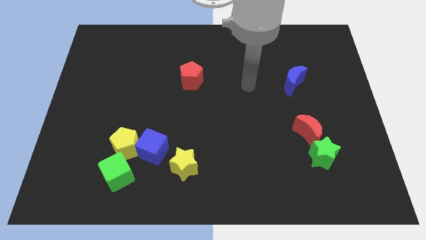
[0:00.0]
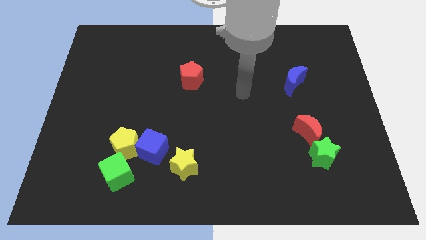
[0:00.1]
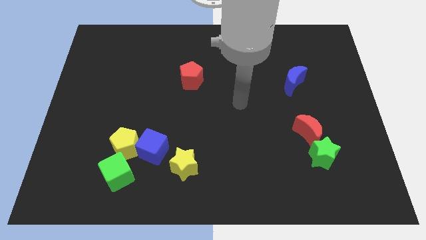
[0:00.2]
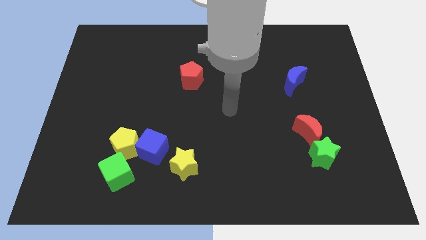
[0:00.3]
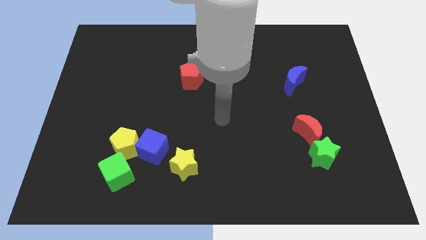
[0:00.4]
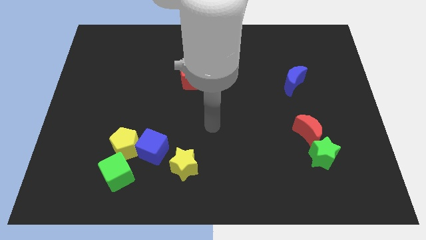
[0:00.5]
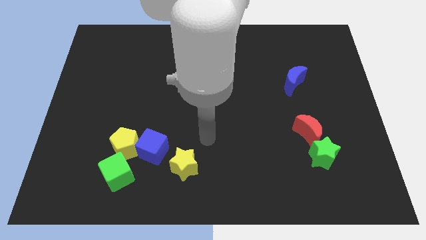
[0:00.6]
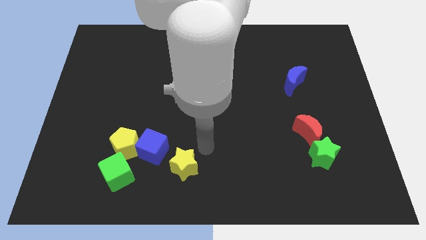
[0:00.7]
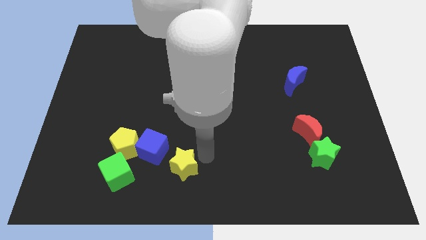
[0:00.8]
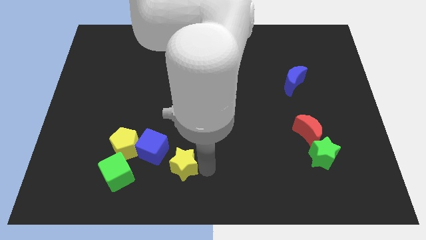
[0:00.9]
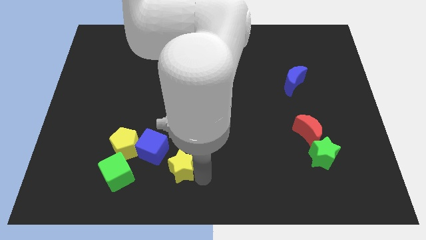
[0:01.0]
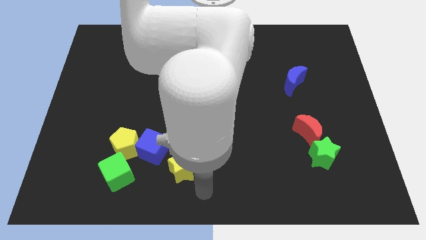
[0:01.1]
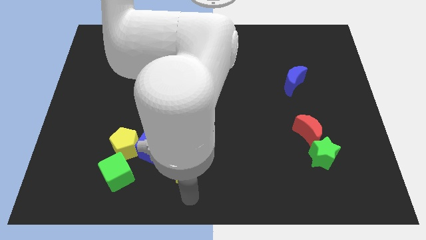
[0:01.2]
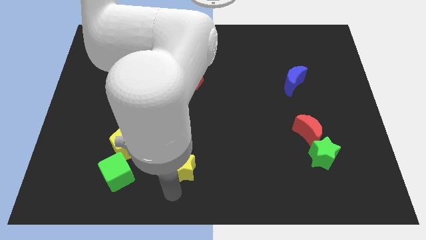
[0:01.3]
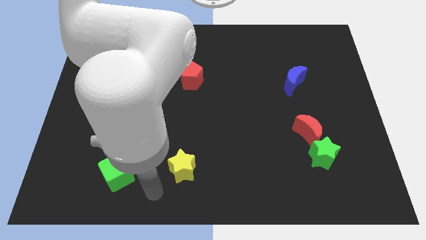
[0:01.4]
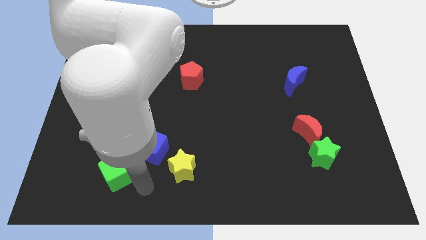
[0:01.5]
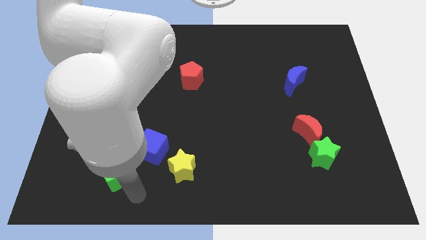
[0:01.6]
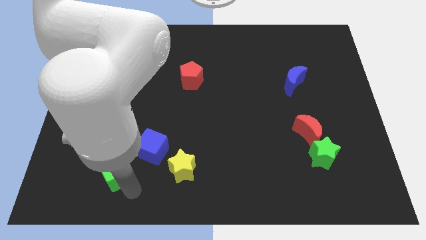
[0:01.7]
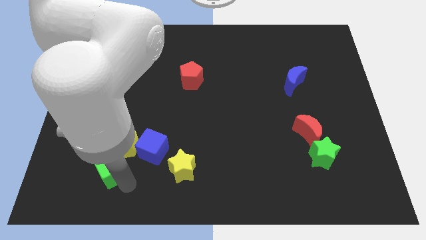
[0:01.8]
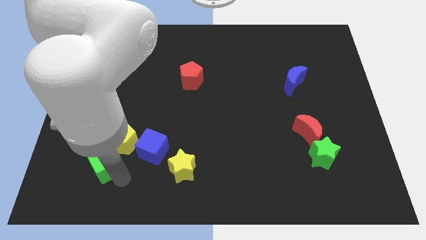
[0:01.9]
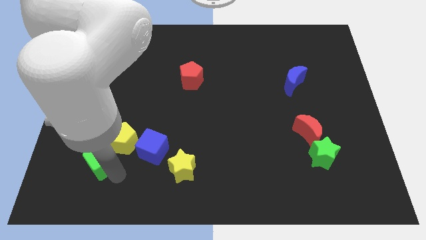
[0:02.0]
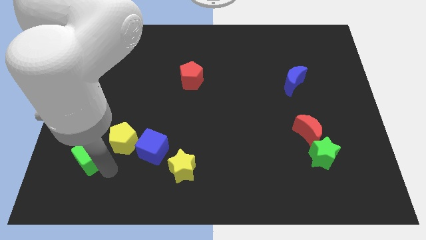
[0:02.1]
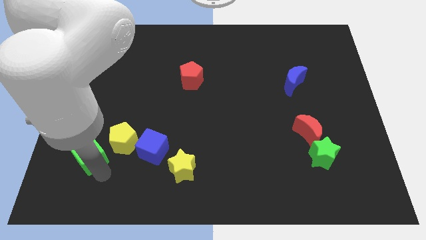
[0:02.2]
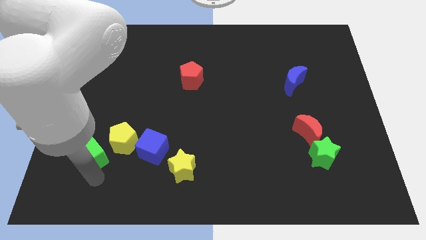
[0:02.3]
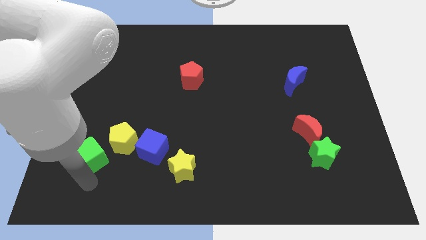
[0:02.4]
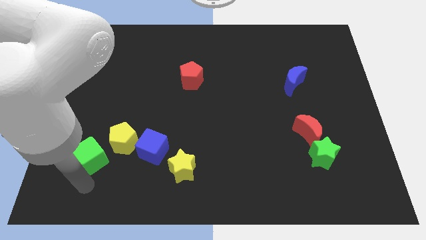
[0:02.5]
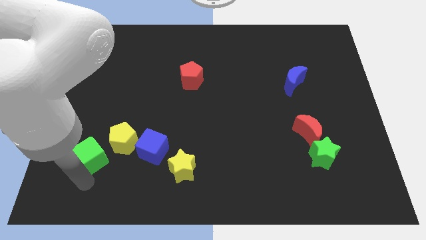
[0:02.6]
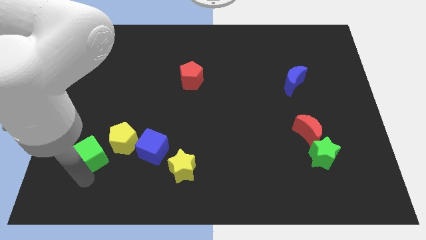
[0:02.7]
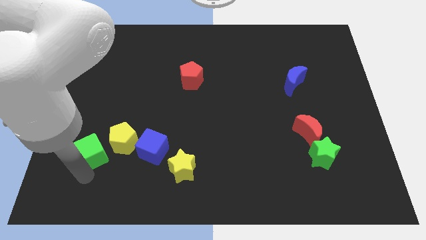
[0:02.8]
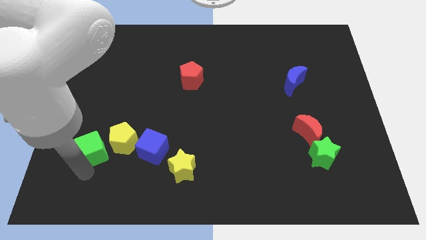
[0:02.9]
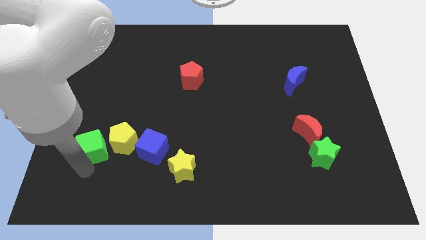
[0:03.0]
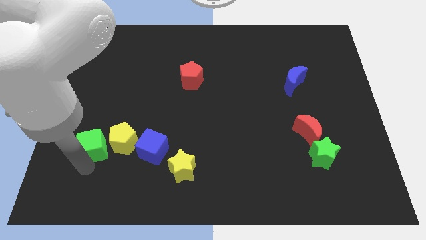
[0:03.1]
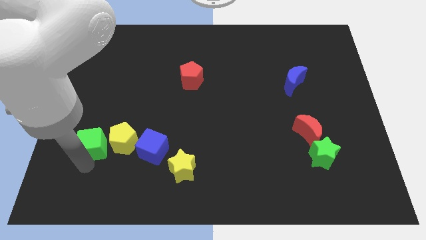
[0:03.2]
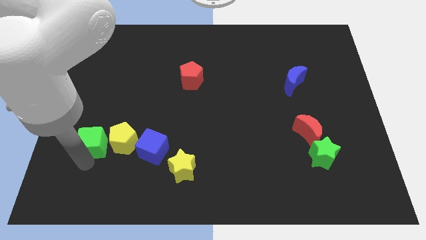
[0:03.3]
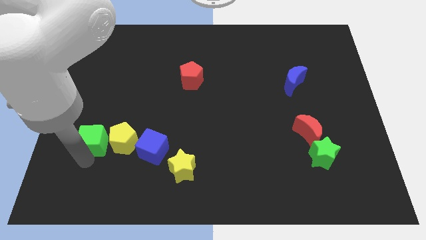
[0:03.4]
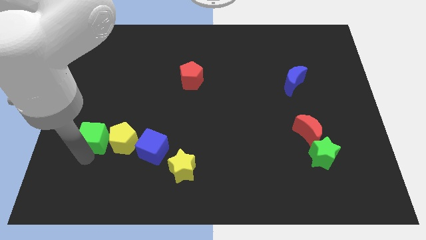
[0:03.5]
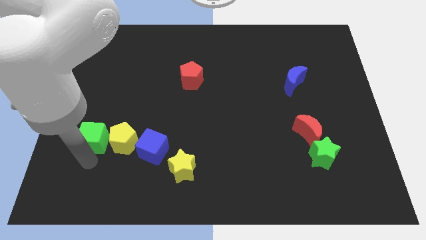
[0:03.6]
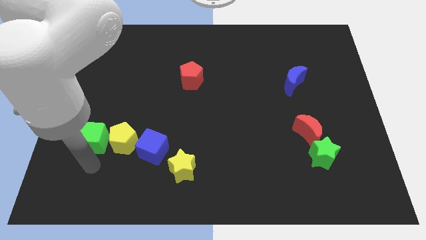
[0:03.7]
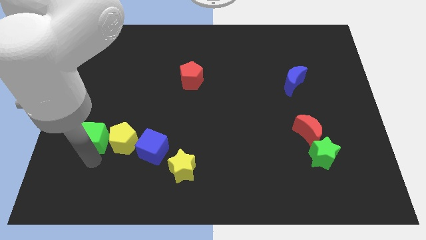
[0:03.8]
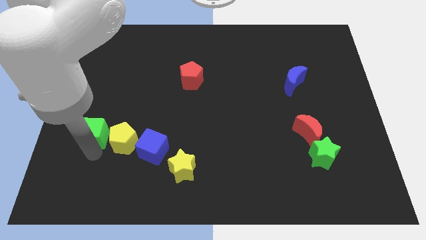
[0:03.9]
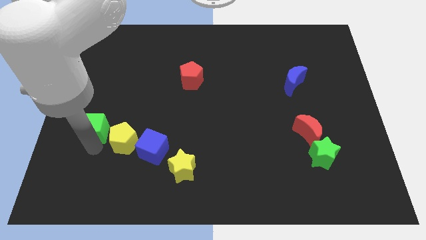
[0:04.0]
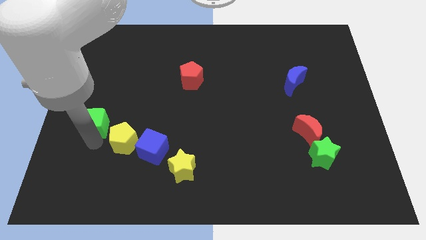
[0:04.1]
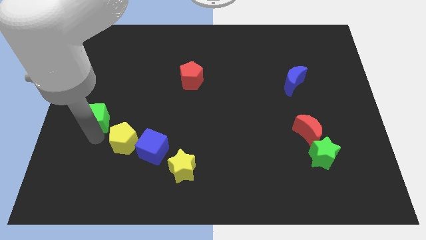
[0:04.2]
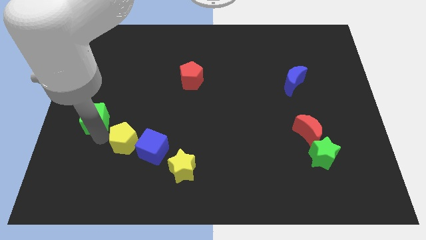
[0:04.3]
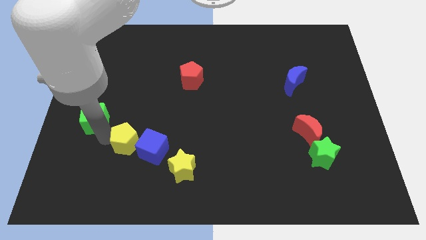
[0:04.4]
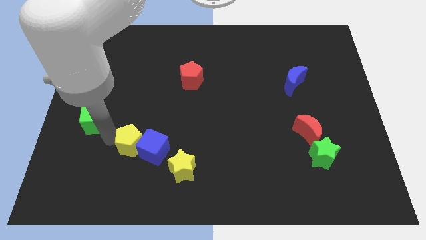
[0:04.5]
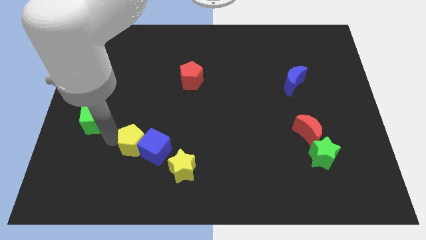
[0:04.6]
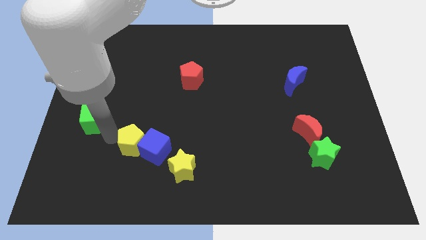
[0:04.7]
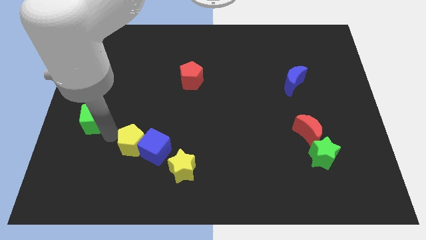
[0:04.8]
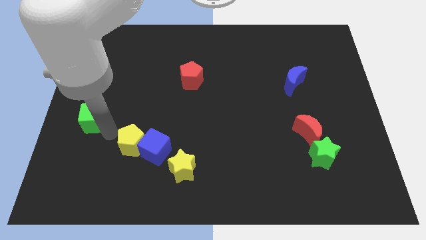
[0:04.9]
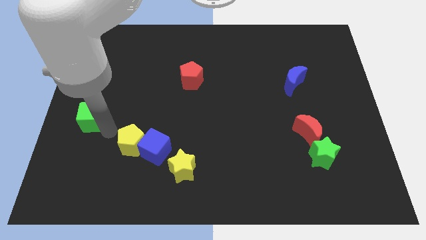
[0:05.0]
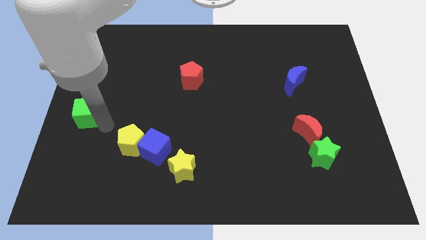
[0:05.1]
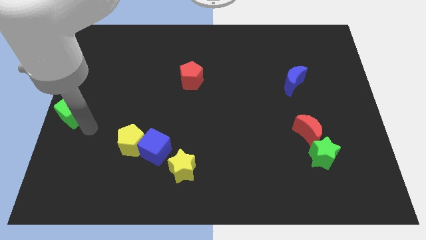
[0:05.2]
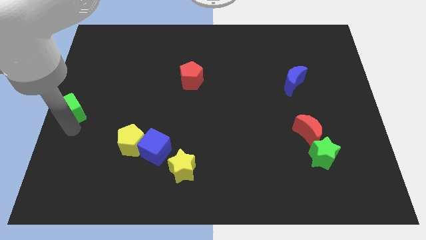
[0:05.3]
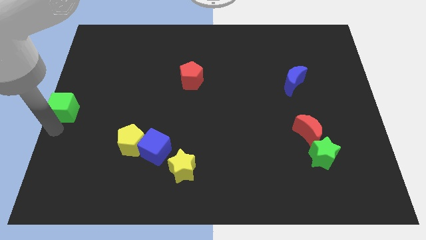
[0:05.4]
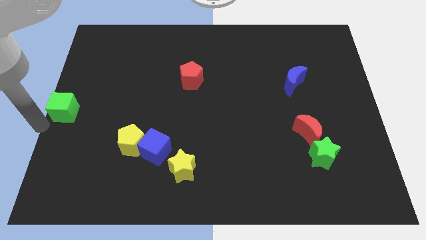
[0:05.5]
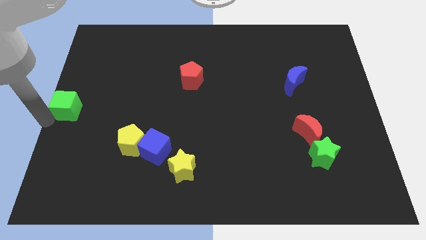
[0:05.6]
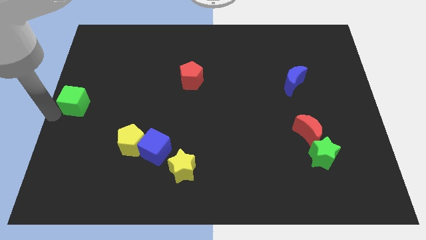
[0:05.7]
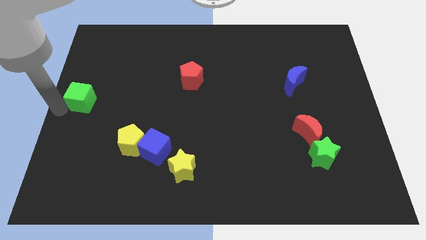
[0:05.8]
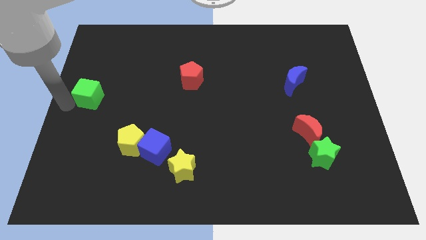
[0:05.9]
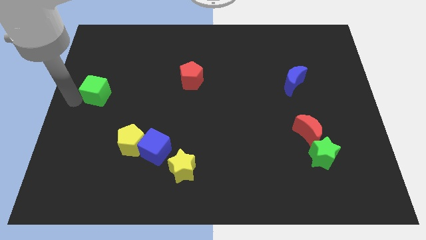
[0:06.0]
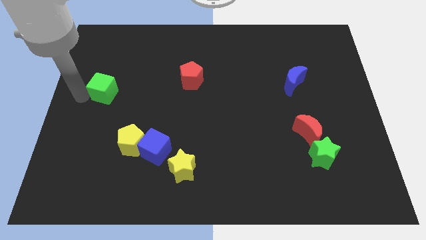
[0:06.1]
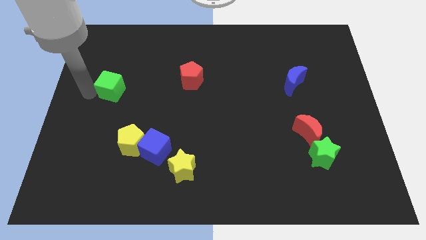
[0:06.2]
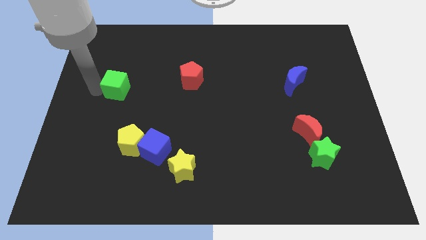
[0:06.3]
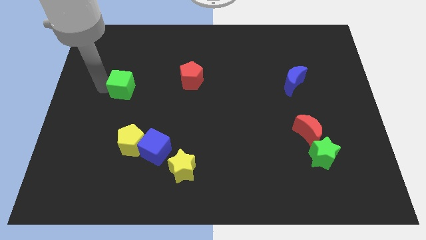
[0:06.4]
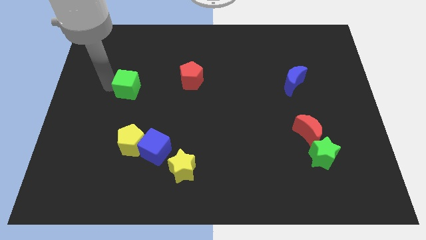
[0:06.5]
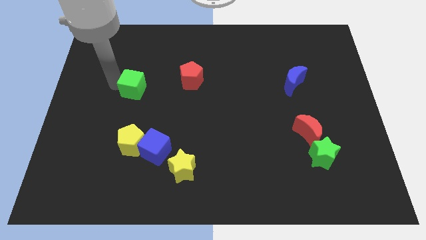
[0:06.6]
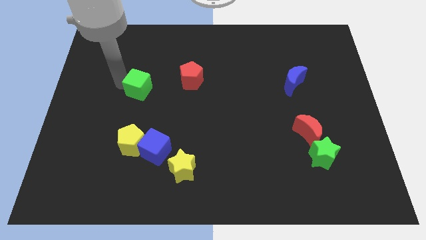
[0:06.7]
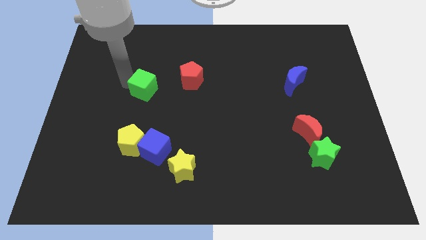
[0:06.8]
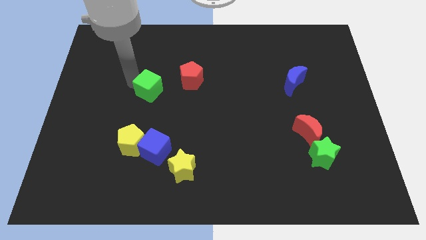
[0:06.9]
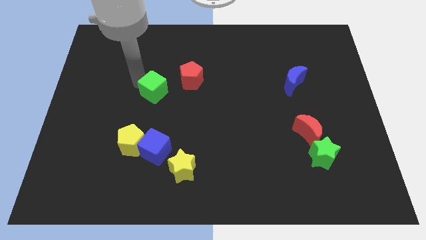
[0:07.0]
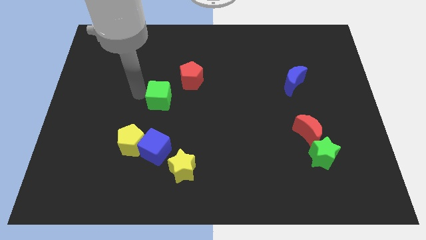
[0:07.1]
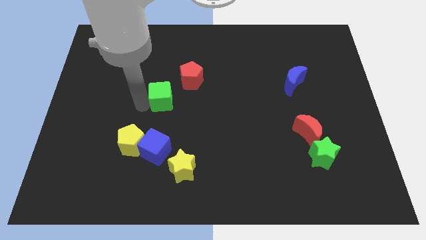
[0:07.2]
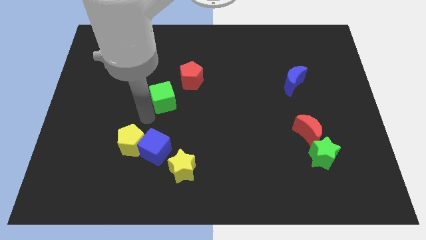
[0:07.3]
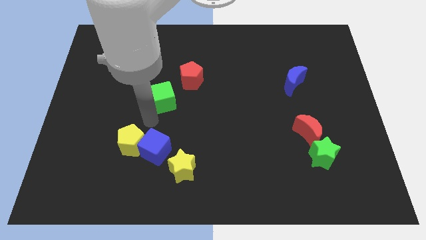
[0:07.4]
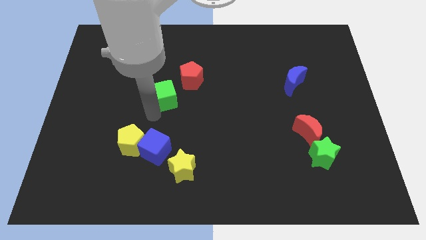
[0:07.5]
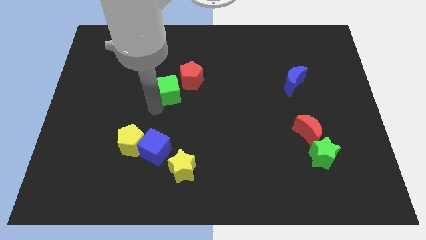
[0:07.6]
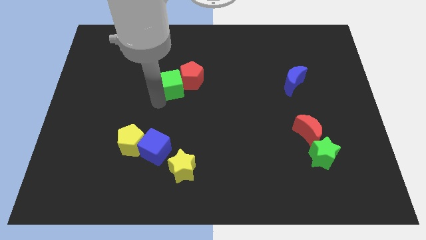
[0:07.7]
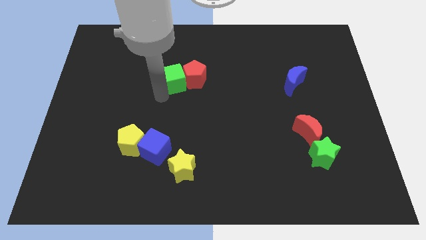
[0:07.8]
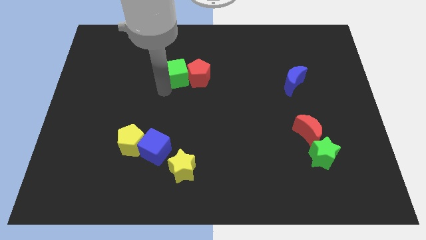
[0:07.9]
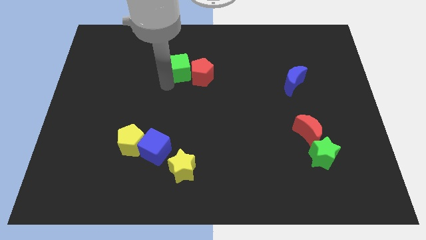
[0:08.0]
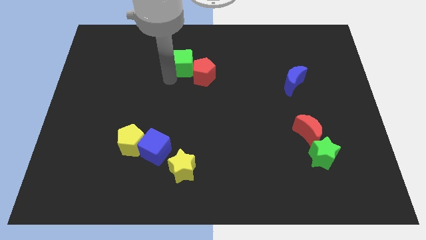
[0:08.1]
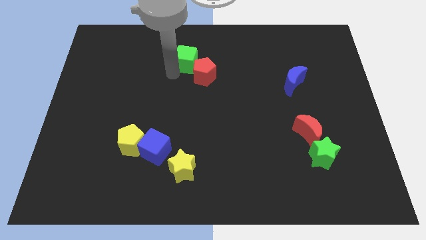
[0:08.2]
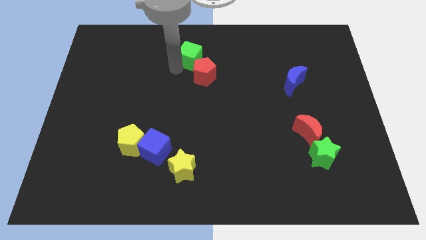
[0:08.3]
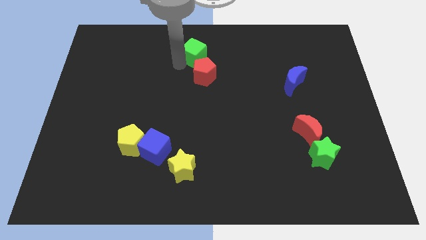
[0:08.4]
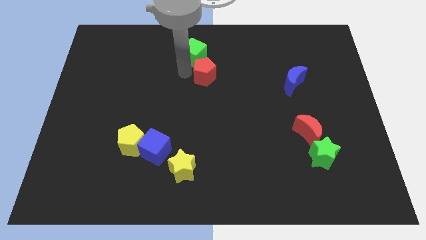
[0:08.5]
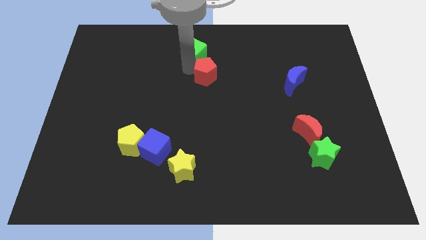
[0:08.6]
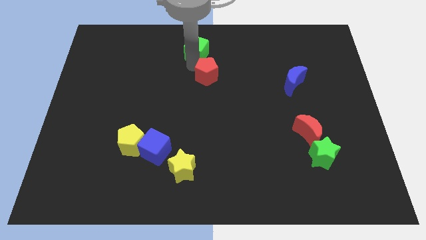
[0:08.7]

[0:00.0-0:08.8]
slide the green cube to the towards your base
